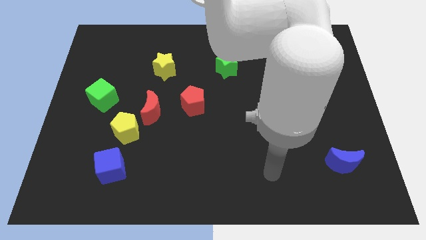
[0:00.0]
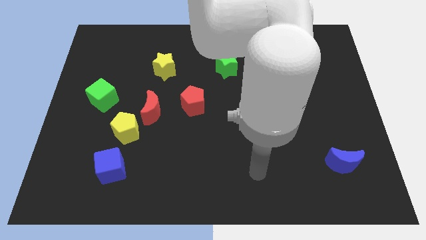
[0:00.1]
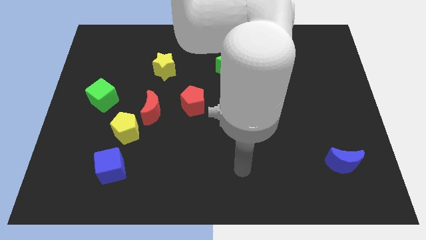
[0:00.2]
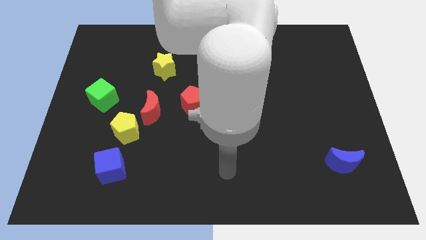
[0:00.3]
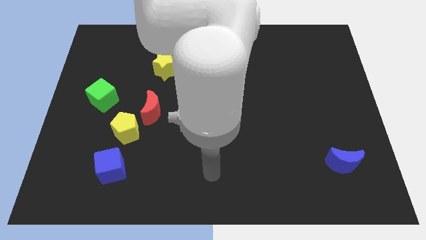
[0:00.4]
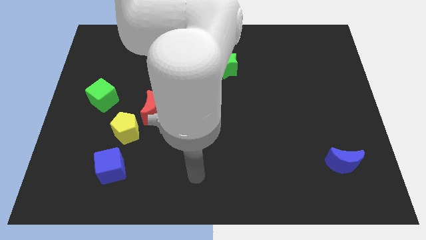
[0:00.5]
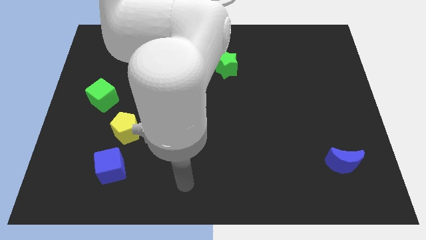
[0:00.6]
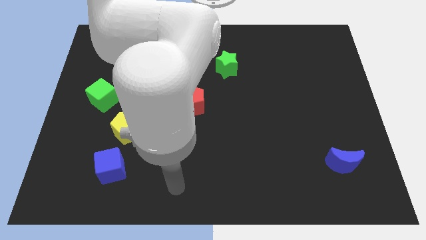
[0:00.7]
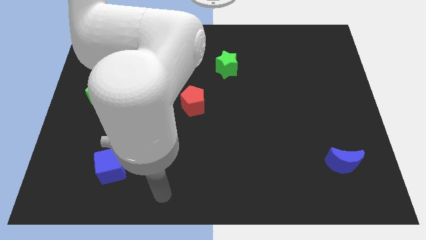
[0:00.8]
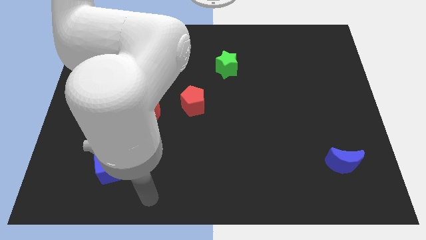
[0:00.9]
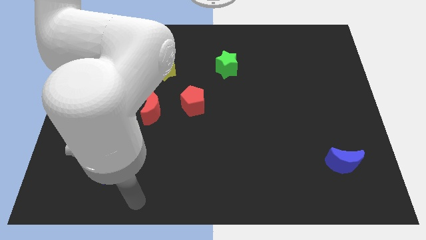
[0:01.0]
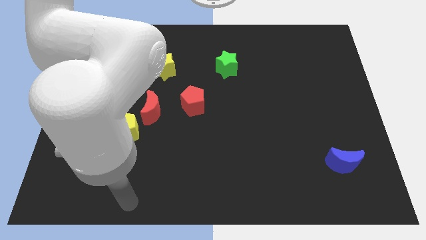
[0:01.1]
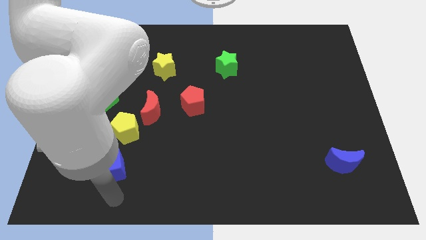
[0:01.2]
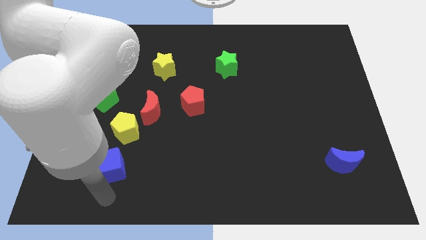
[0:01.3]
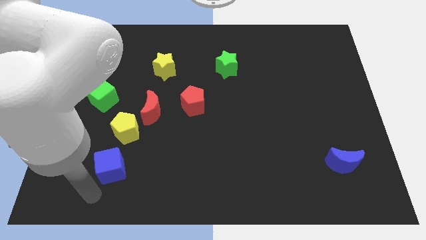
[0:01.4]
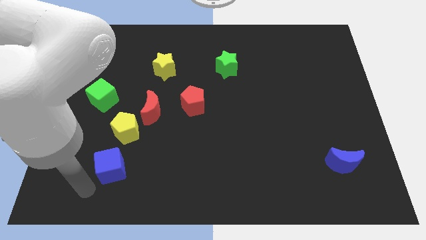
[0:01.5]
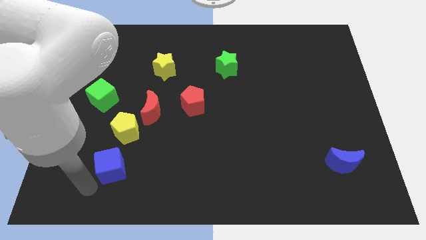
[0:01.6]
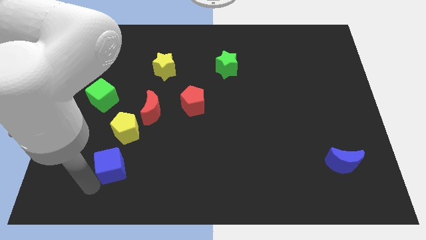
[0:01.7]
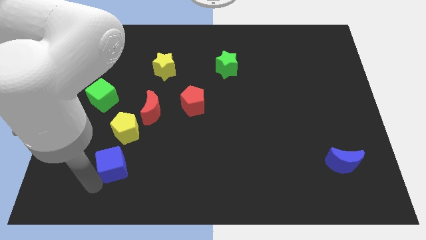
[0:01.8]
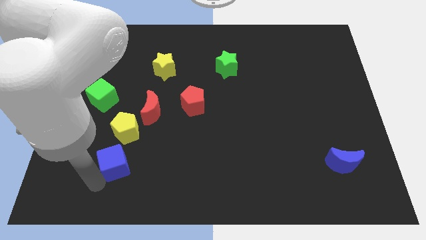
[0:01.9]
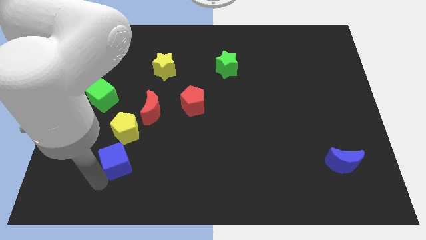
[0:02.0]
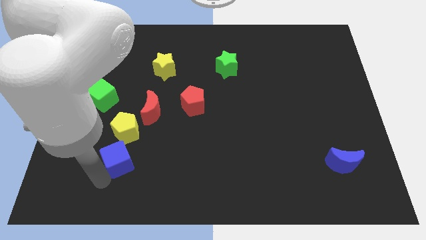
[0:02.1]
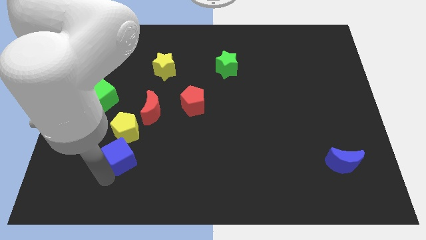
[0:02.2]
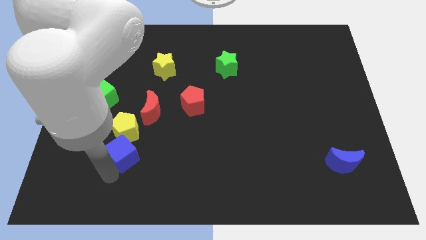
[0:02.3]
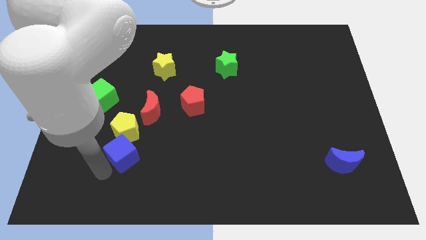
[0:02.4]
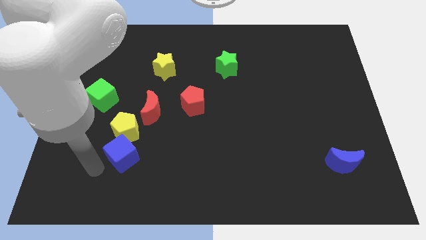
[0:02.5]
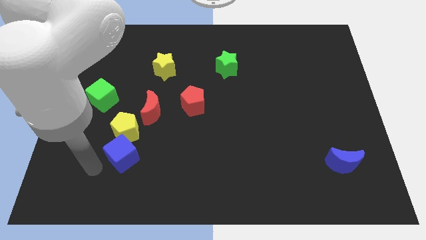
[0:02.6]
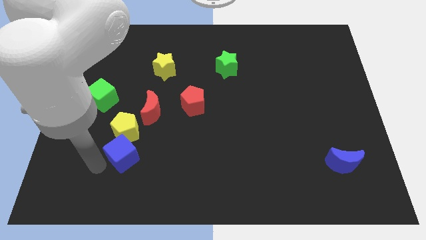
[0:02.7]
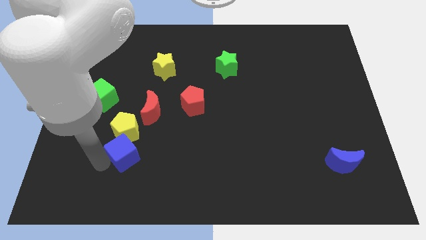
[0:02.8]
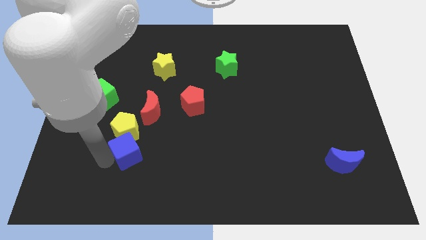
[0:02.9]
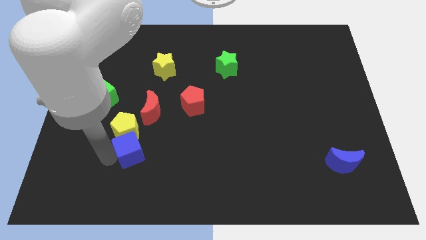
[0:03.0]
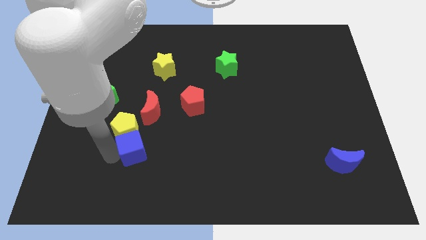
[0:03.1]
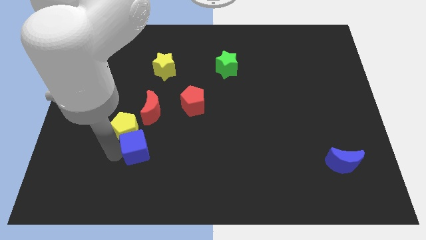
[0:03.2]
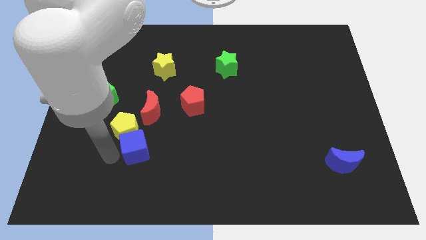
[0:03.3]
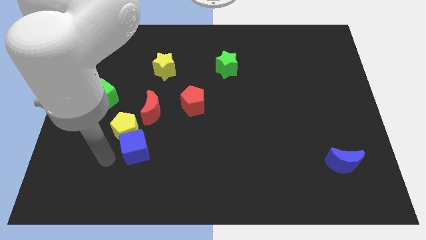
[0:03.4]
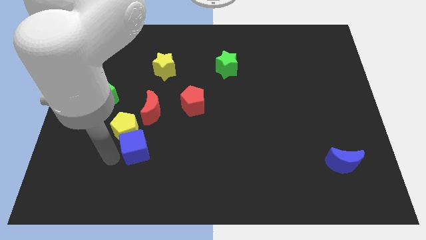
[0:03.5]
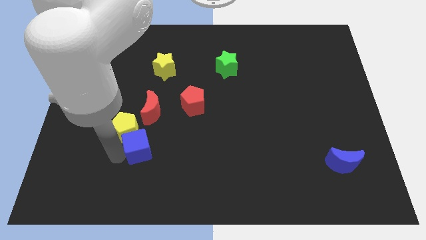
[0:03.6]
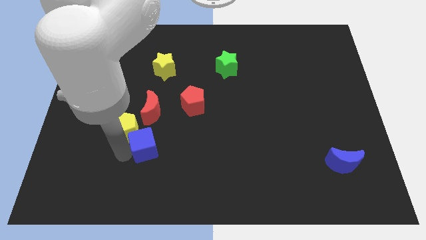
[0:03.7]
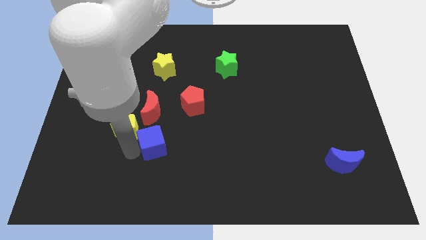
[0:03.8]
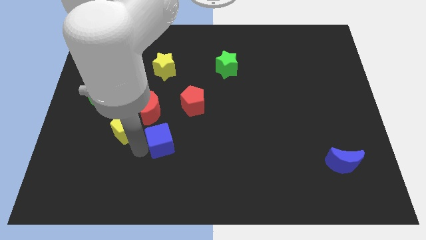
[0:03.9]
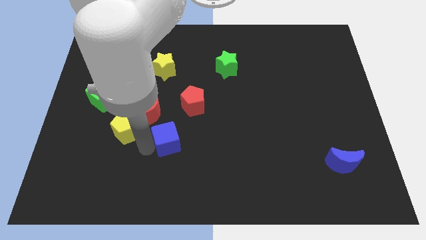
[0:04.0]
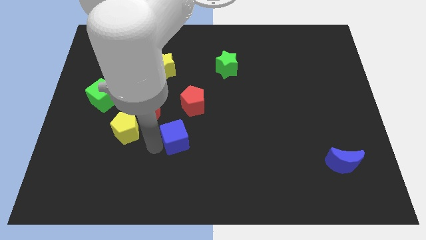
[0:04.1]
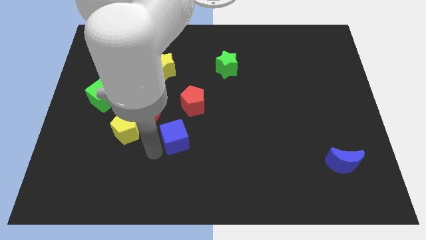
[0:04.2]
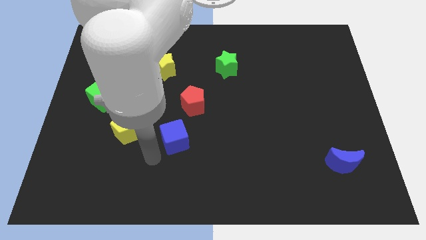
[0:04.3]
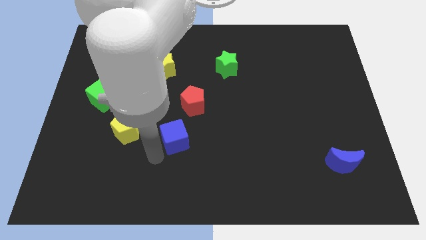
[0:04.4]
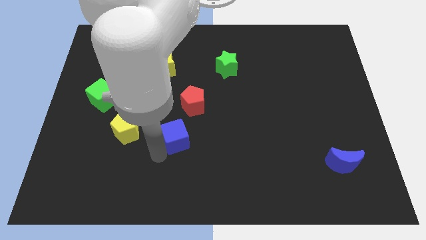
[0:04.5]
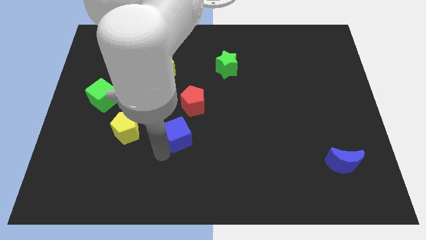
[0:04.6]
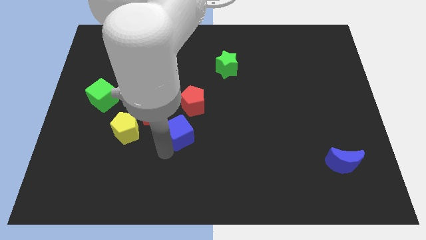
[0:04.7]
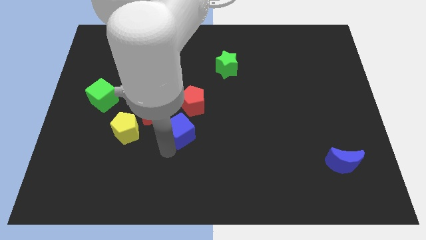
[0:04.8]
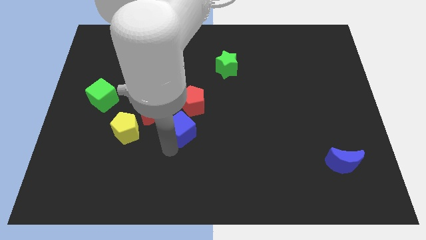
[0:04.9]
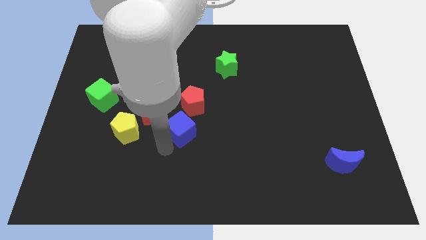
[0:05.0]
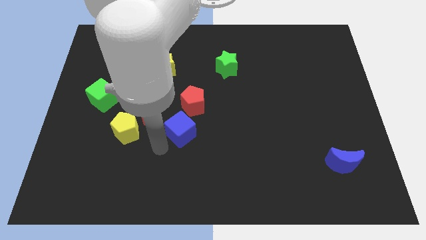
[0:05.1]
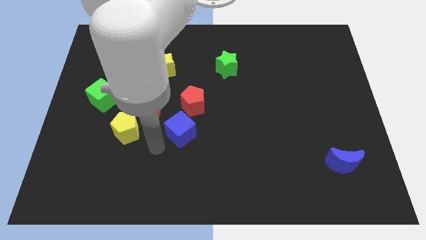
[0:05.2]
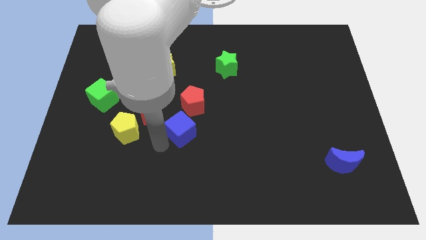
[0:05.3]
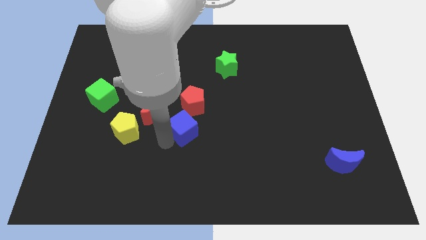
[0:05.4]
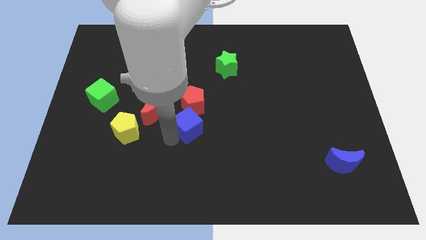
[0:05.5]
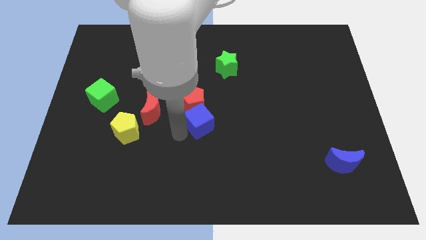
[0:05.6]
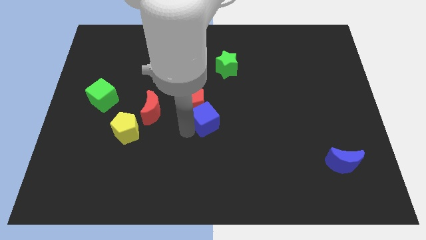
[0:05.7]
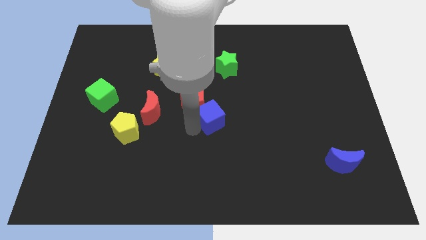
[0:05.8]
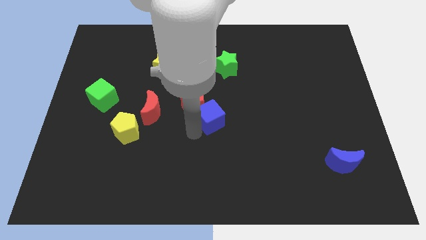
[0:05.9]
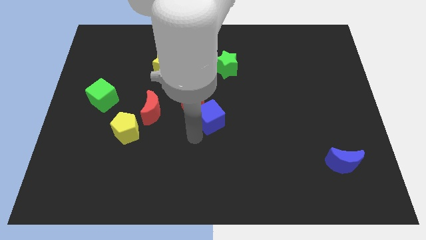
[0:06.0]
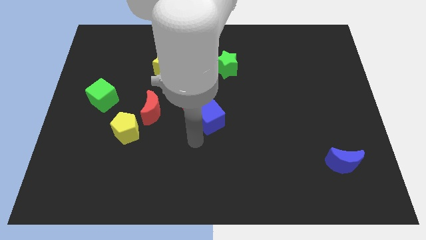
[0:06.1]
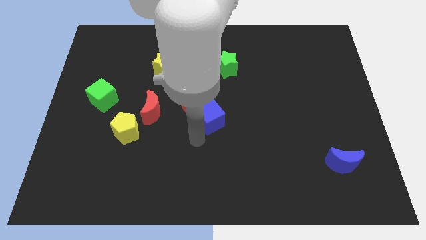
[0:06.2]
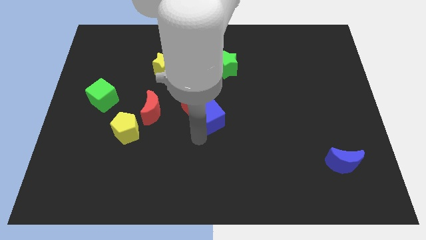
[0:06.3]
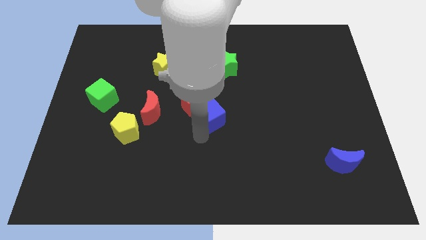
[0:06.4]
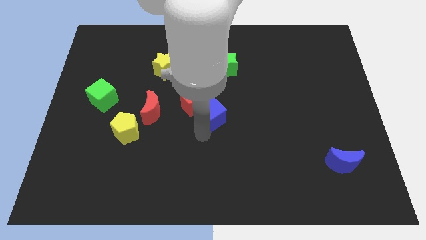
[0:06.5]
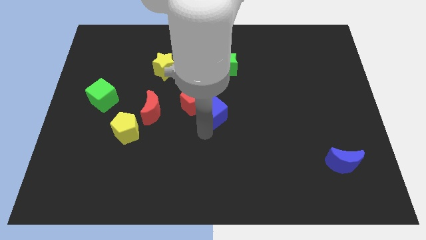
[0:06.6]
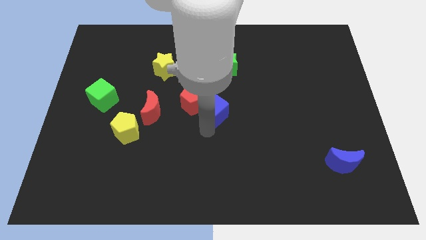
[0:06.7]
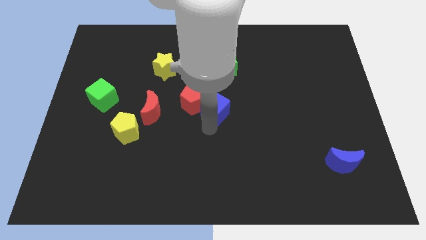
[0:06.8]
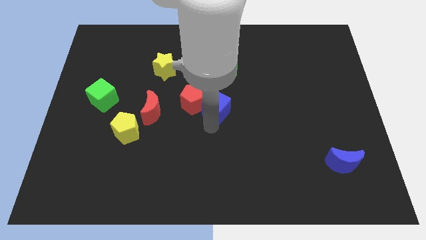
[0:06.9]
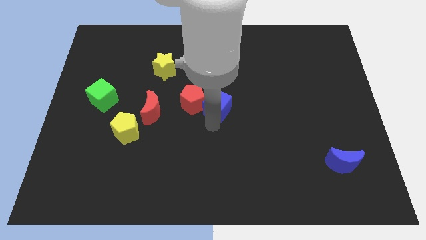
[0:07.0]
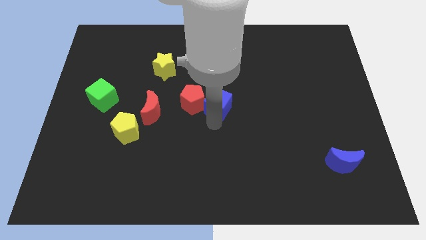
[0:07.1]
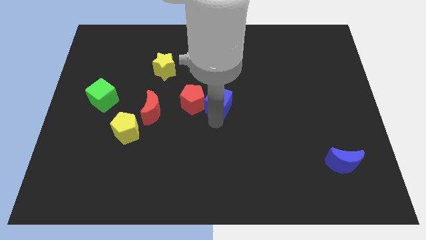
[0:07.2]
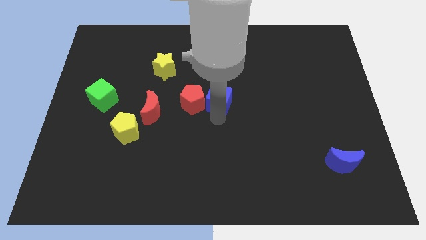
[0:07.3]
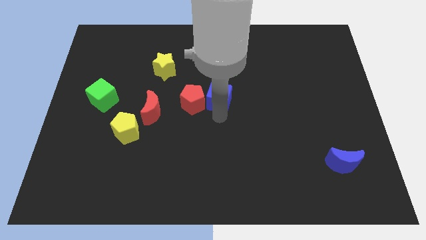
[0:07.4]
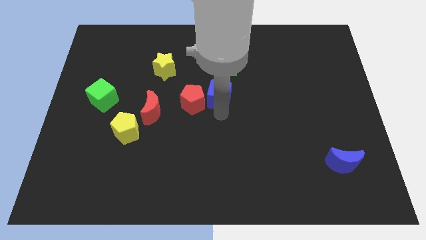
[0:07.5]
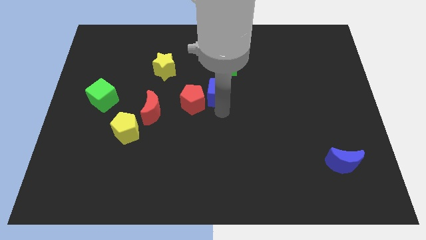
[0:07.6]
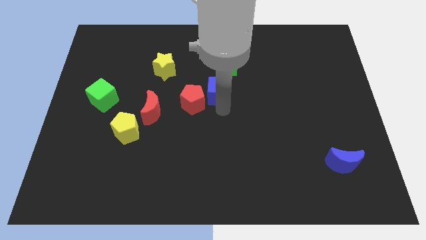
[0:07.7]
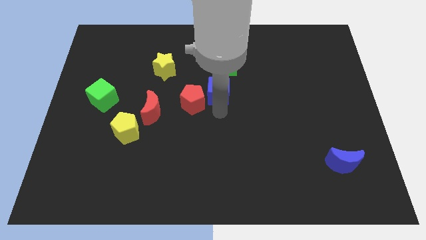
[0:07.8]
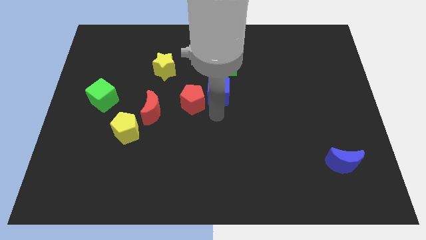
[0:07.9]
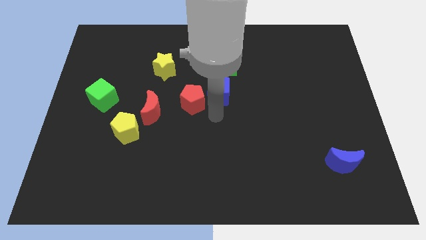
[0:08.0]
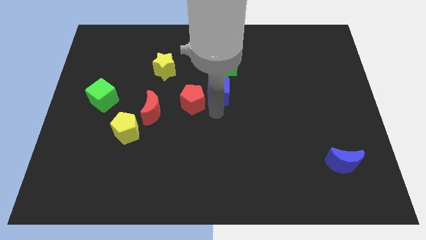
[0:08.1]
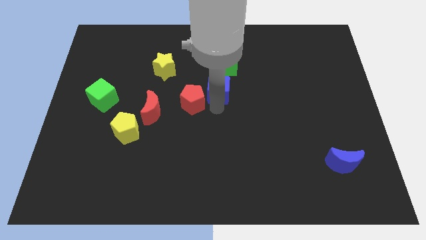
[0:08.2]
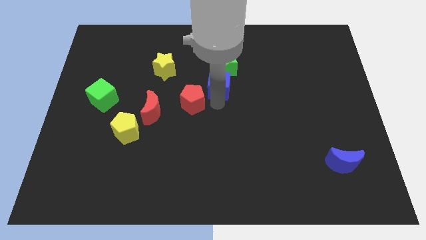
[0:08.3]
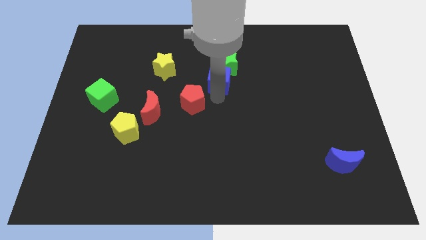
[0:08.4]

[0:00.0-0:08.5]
slide the blue cube towards the green star
